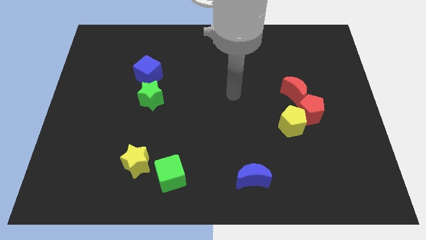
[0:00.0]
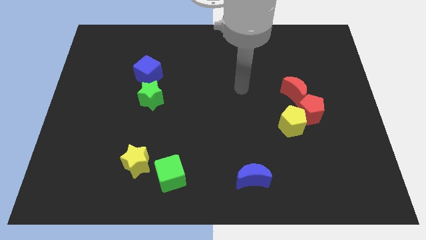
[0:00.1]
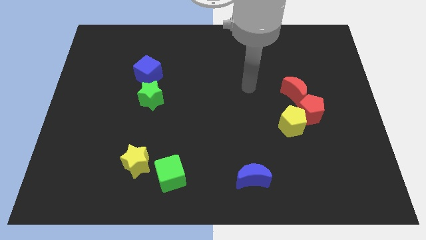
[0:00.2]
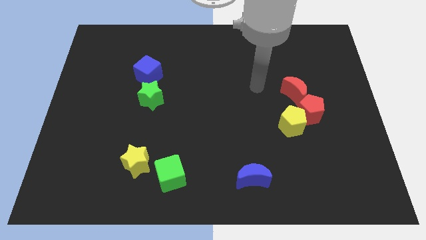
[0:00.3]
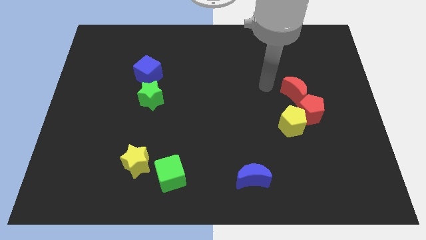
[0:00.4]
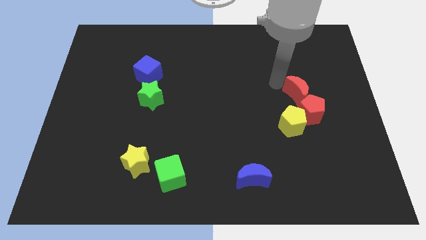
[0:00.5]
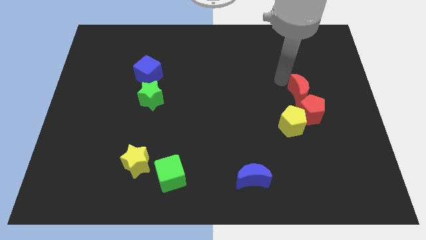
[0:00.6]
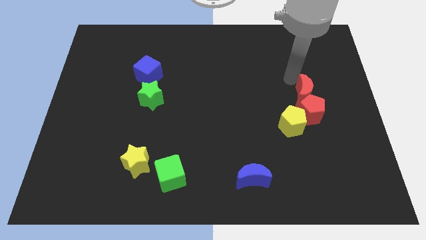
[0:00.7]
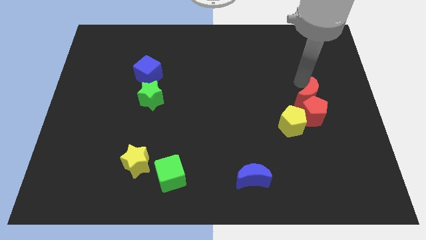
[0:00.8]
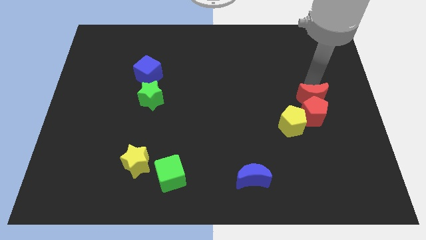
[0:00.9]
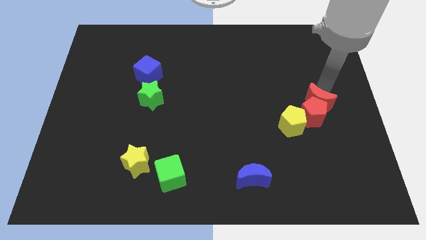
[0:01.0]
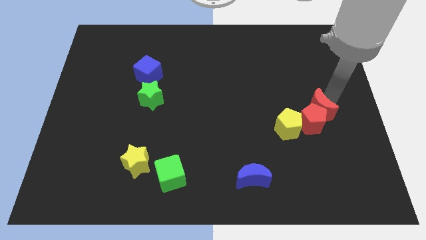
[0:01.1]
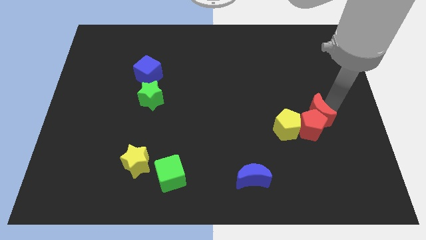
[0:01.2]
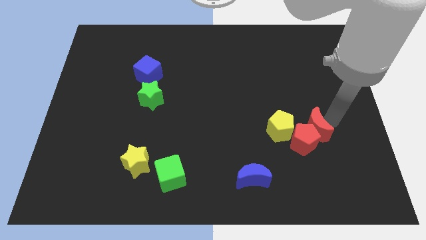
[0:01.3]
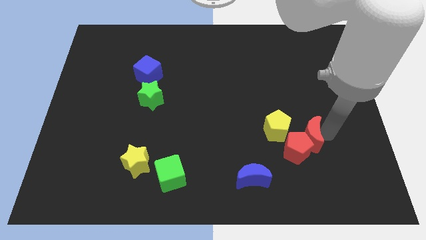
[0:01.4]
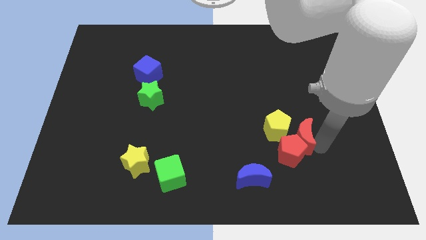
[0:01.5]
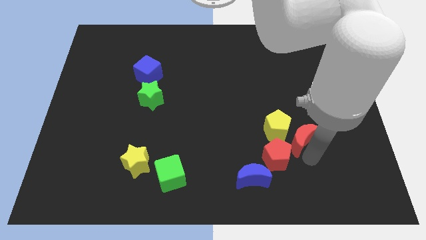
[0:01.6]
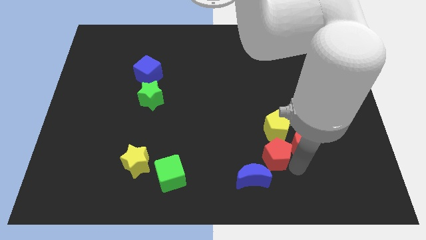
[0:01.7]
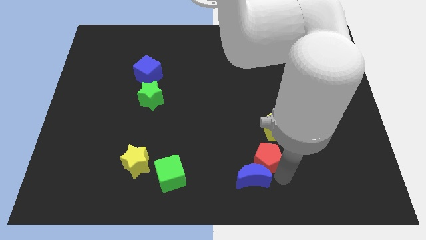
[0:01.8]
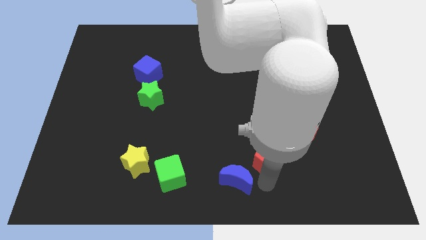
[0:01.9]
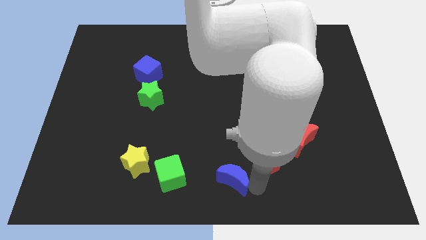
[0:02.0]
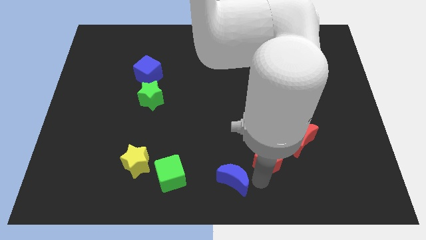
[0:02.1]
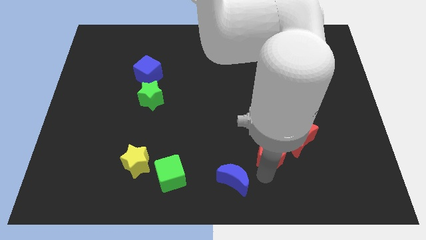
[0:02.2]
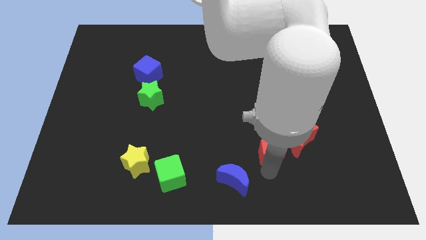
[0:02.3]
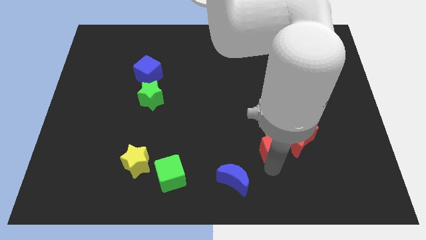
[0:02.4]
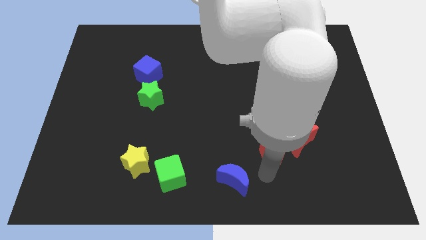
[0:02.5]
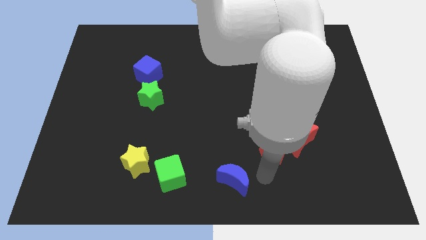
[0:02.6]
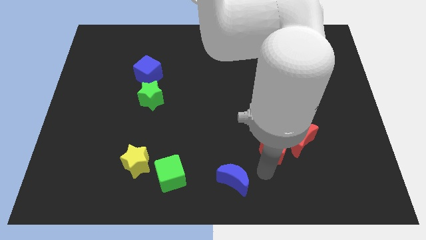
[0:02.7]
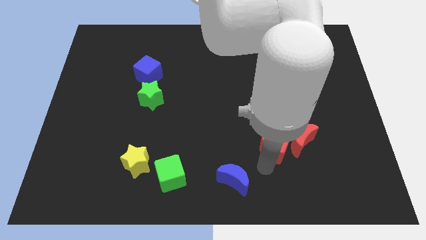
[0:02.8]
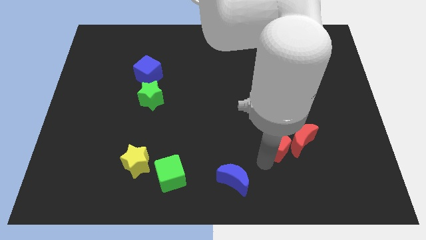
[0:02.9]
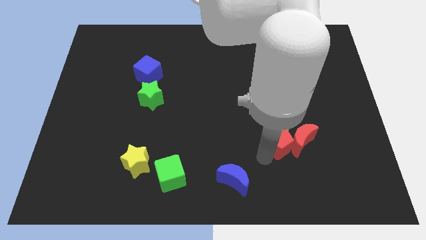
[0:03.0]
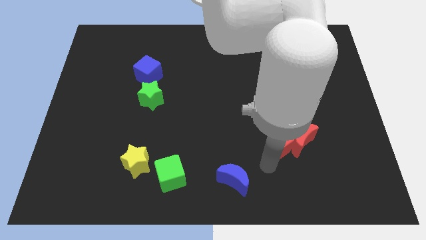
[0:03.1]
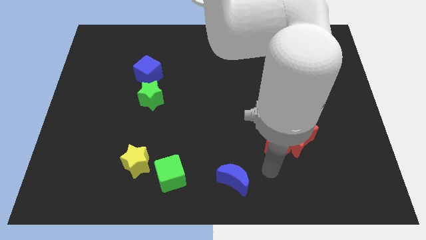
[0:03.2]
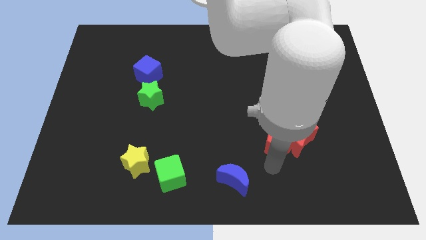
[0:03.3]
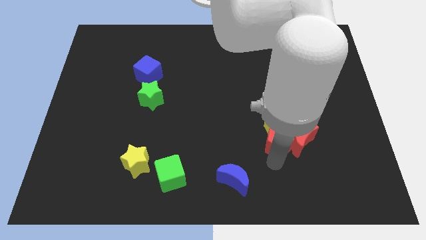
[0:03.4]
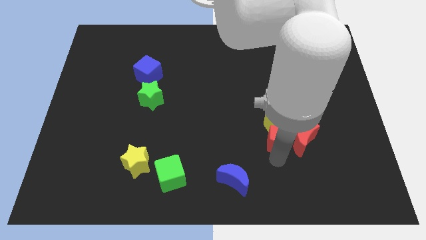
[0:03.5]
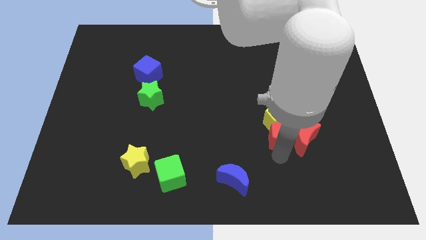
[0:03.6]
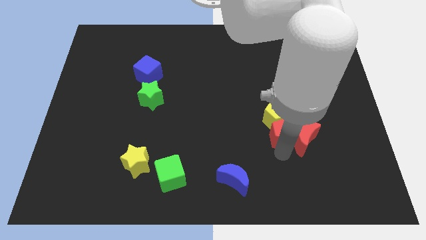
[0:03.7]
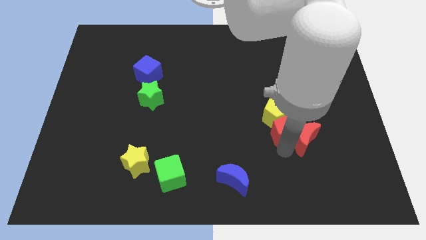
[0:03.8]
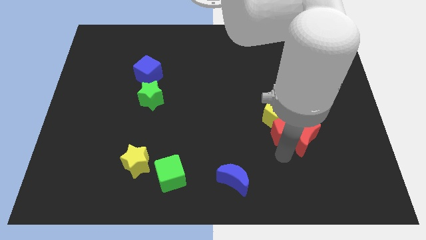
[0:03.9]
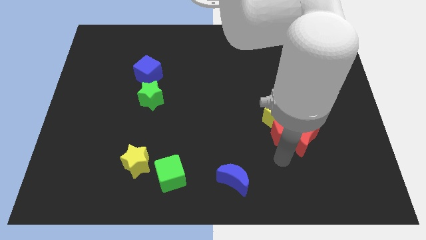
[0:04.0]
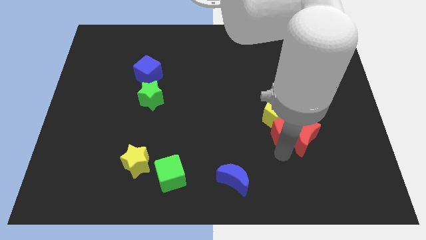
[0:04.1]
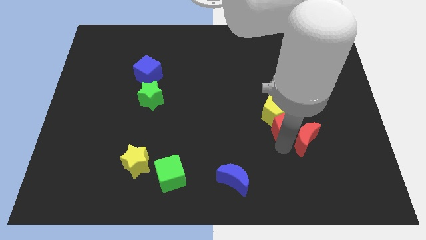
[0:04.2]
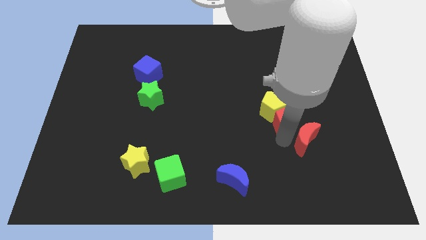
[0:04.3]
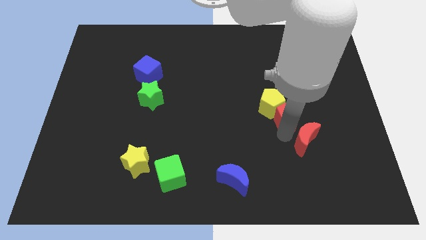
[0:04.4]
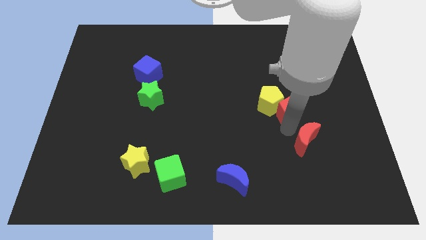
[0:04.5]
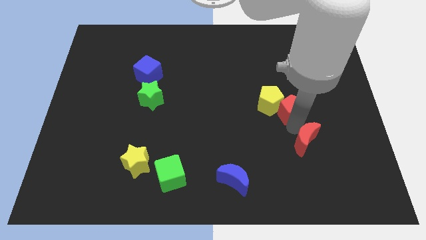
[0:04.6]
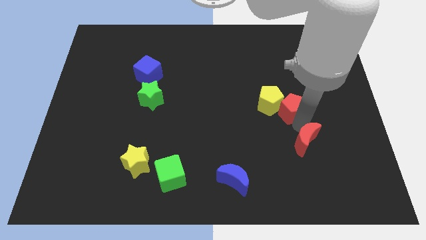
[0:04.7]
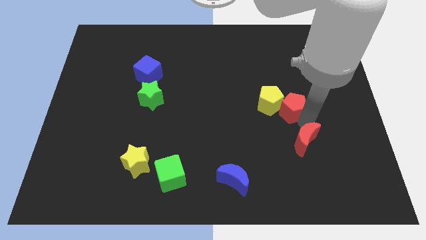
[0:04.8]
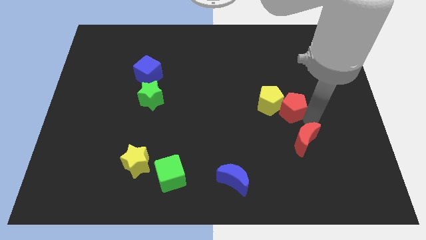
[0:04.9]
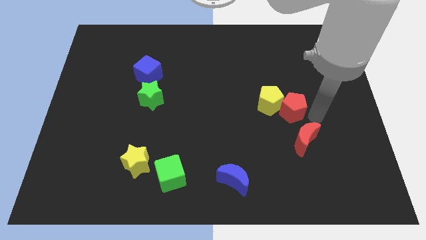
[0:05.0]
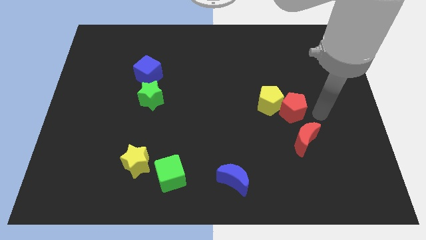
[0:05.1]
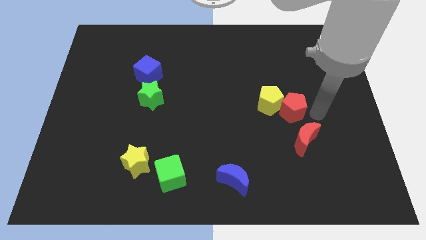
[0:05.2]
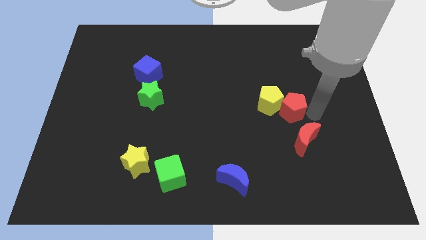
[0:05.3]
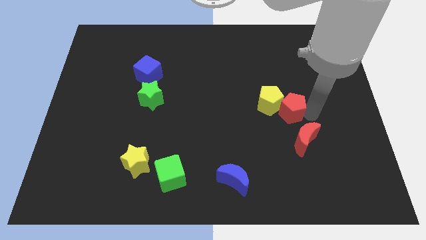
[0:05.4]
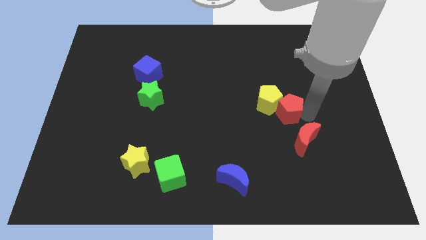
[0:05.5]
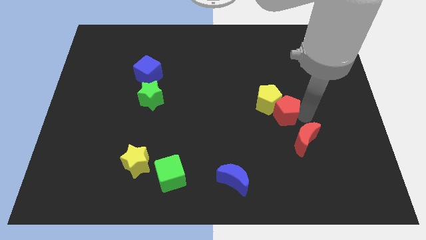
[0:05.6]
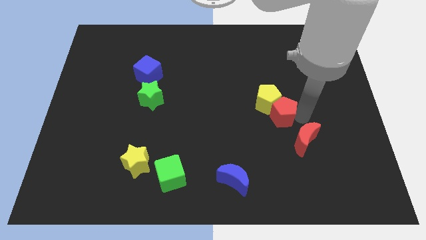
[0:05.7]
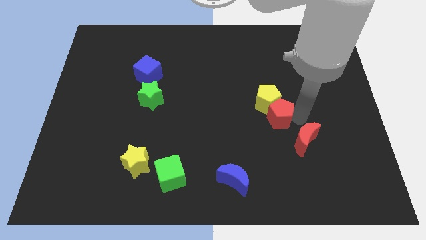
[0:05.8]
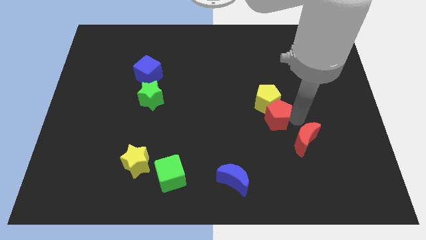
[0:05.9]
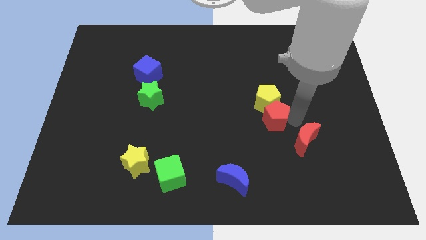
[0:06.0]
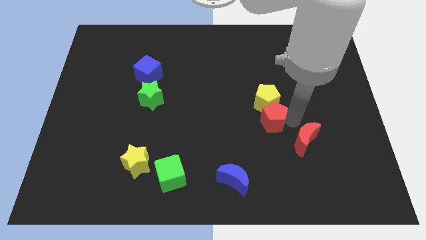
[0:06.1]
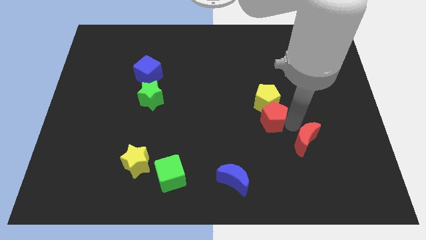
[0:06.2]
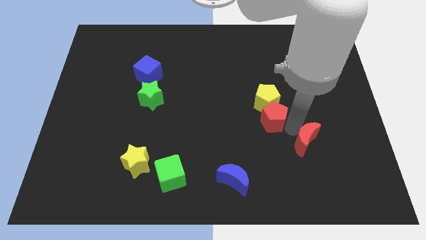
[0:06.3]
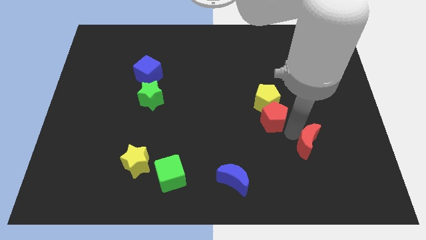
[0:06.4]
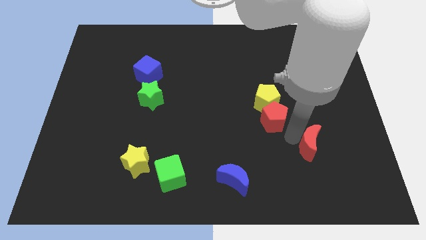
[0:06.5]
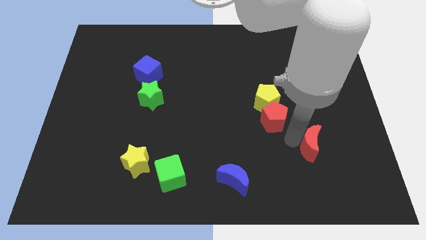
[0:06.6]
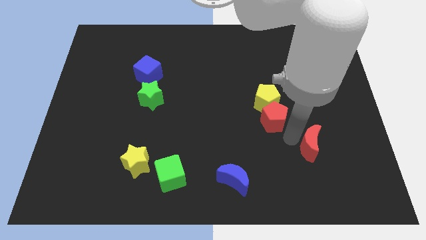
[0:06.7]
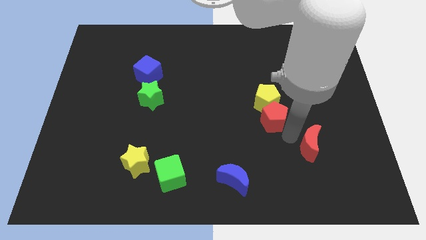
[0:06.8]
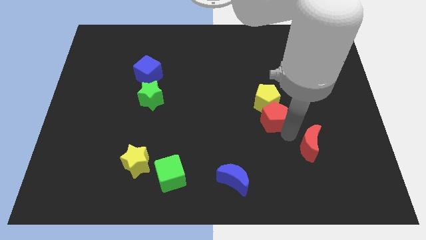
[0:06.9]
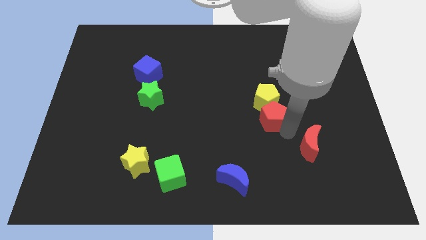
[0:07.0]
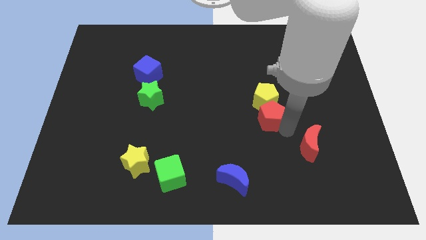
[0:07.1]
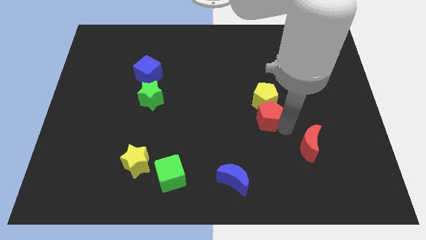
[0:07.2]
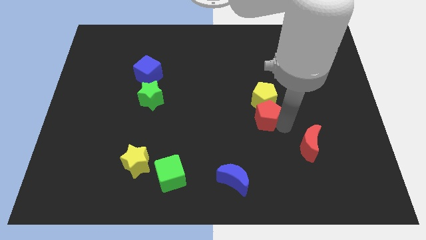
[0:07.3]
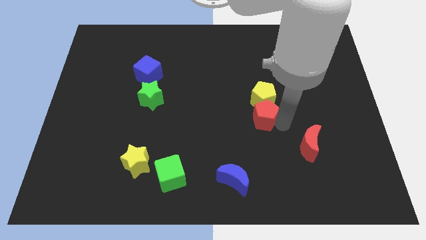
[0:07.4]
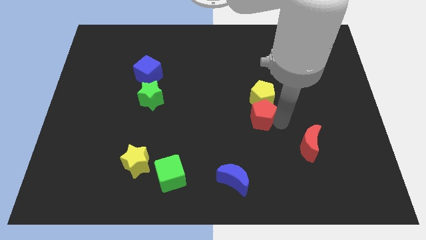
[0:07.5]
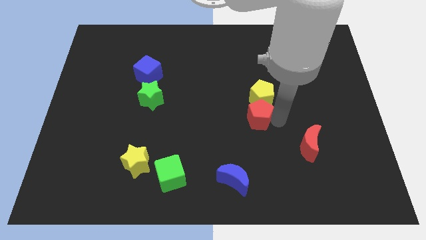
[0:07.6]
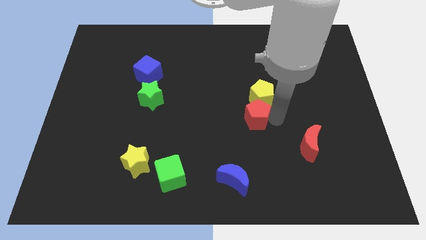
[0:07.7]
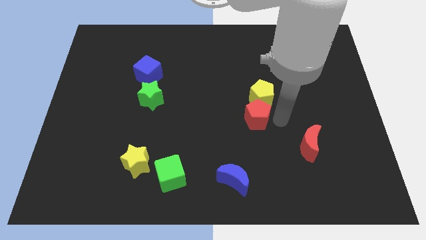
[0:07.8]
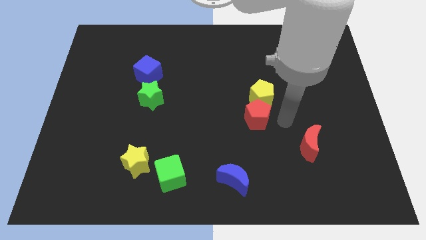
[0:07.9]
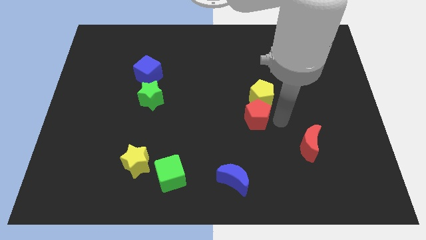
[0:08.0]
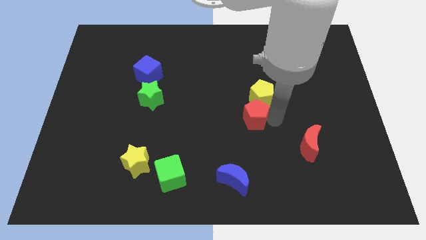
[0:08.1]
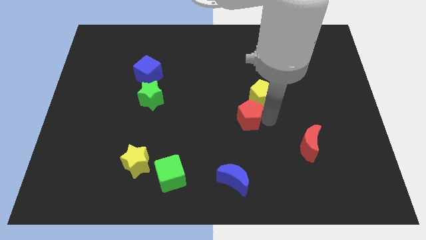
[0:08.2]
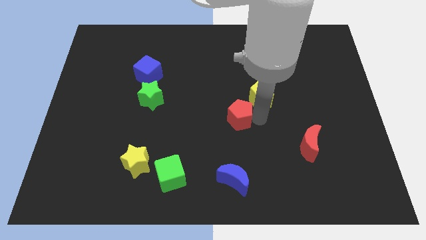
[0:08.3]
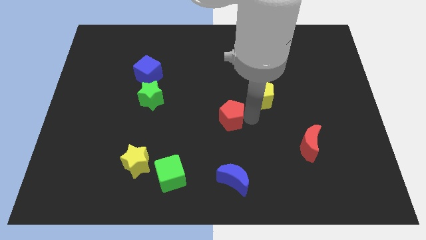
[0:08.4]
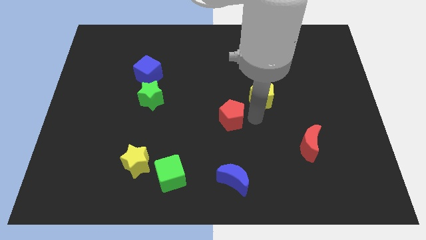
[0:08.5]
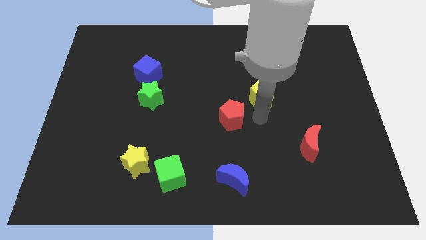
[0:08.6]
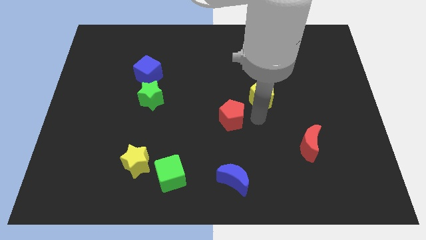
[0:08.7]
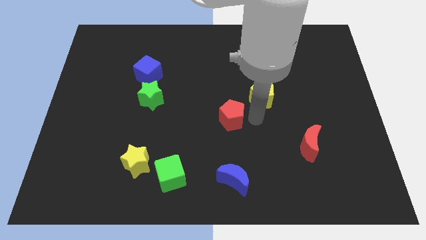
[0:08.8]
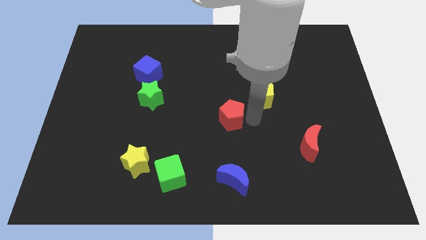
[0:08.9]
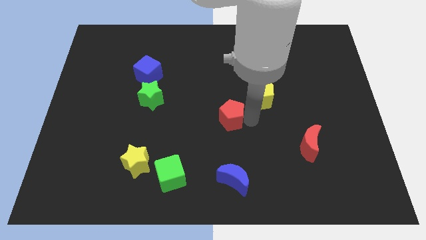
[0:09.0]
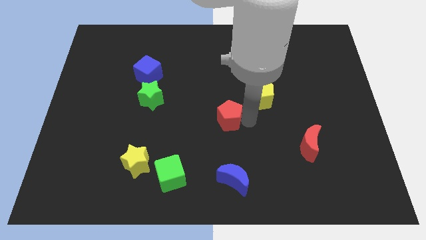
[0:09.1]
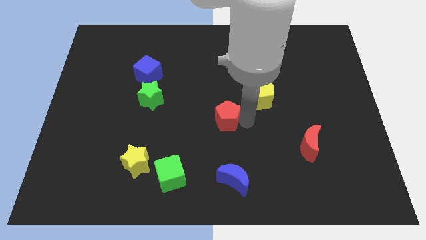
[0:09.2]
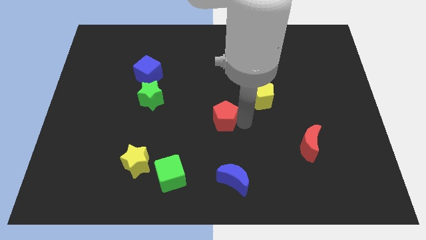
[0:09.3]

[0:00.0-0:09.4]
slide the red pentagon to the left
